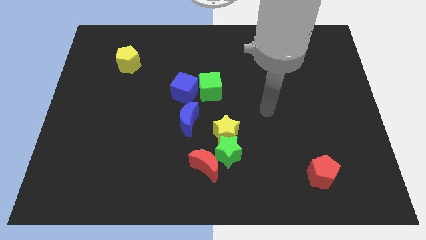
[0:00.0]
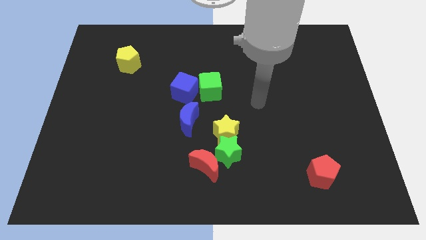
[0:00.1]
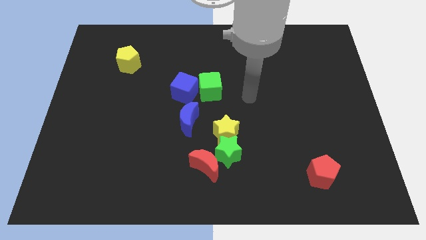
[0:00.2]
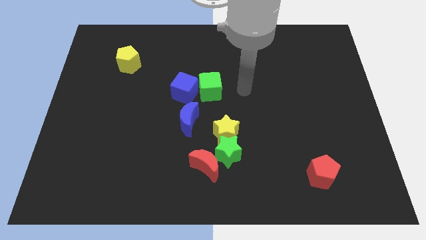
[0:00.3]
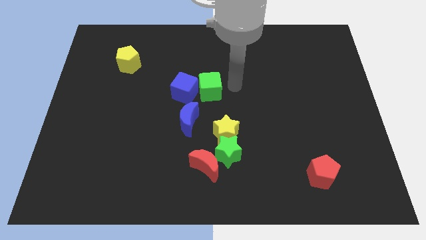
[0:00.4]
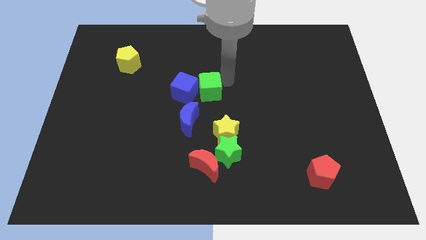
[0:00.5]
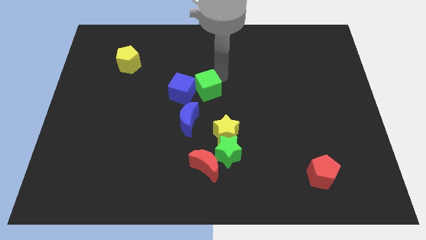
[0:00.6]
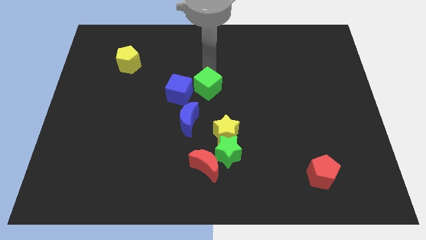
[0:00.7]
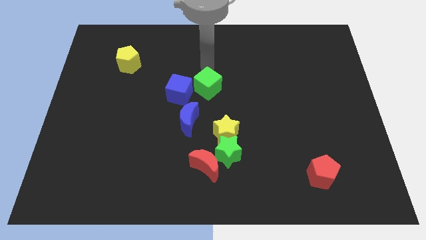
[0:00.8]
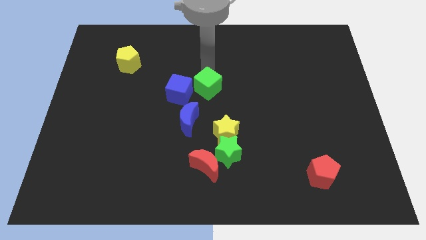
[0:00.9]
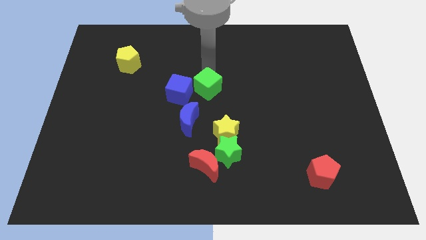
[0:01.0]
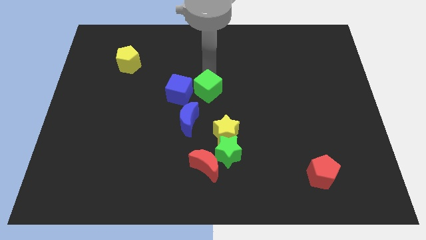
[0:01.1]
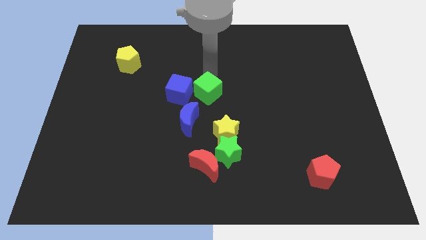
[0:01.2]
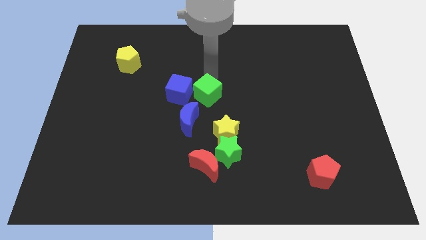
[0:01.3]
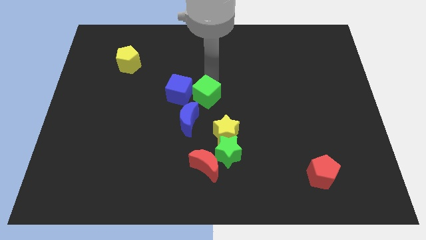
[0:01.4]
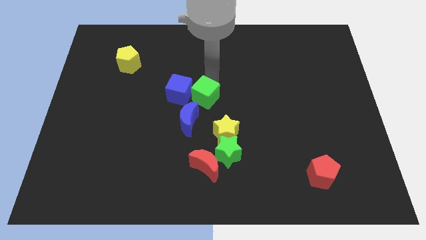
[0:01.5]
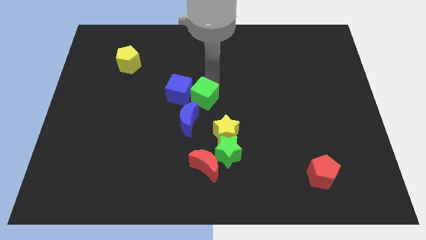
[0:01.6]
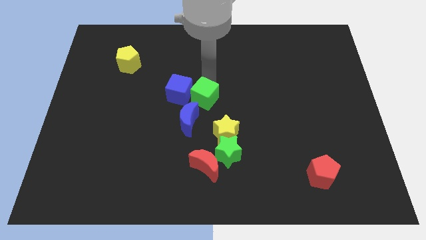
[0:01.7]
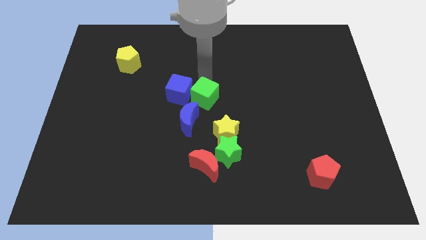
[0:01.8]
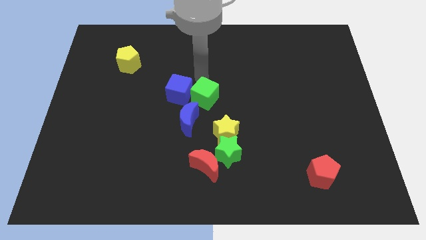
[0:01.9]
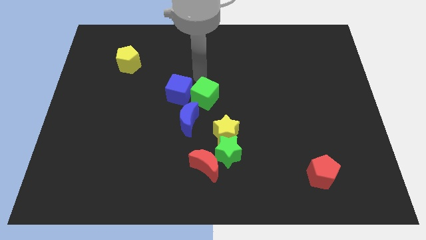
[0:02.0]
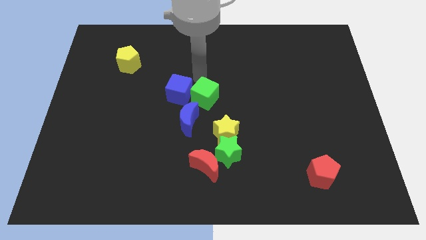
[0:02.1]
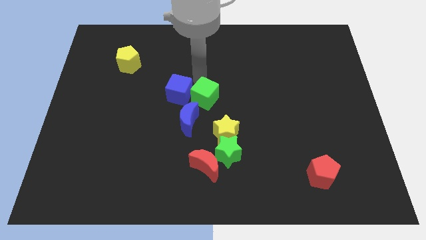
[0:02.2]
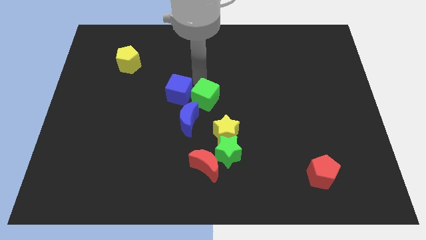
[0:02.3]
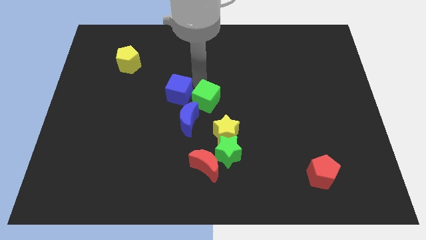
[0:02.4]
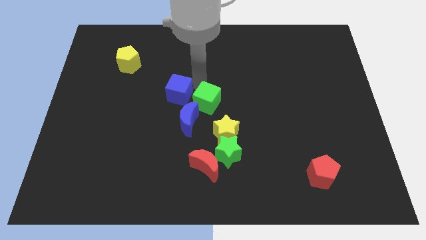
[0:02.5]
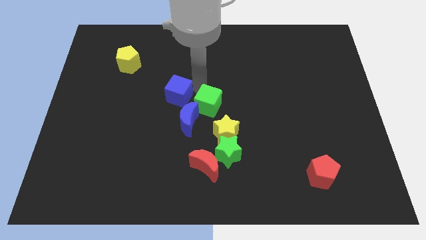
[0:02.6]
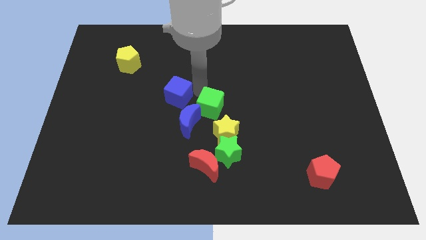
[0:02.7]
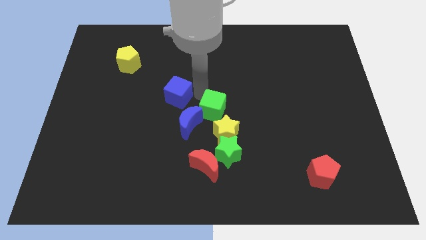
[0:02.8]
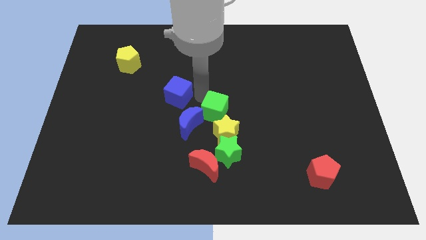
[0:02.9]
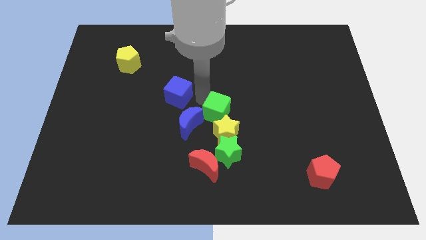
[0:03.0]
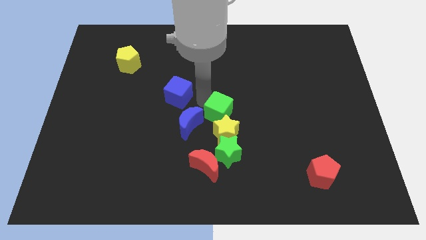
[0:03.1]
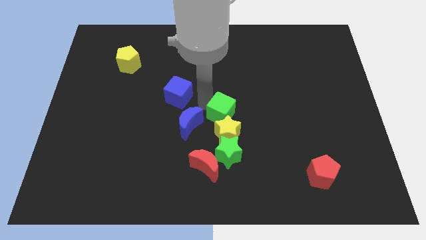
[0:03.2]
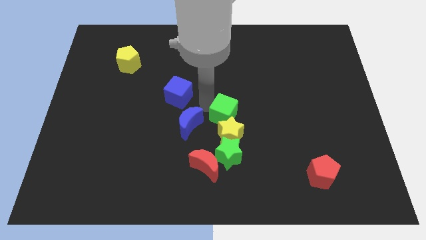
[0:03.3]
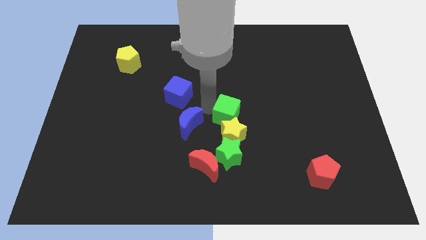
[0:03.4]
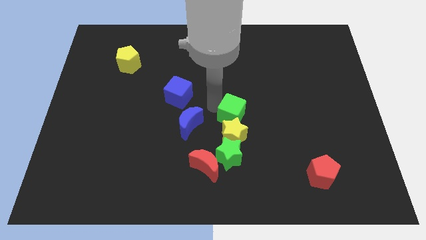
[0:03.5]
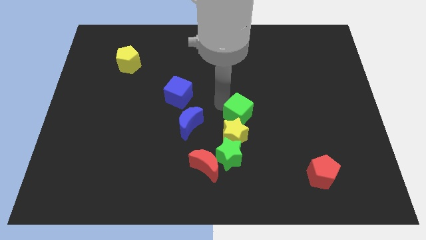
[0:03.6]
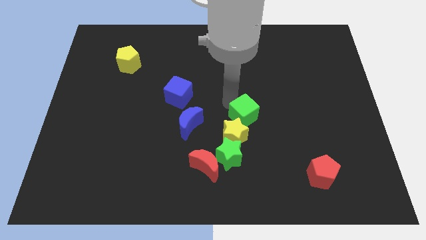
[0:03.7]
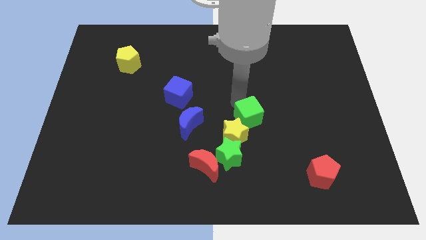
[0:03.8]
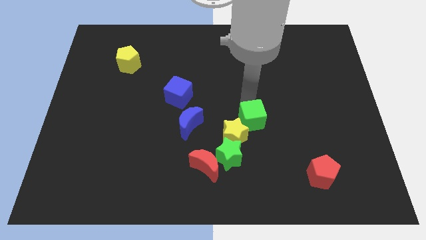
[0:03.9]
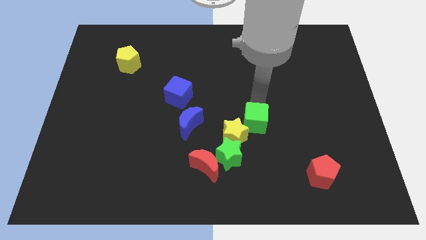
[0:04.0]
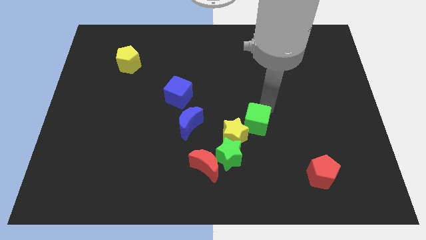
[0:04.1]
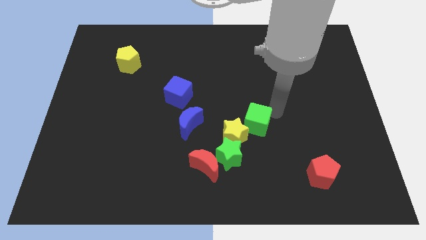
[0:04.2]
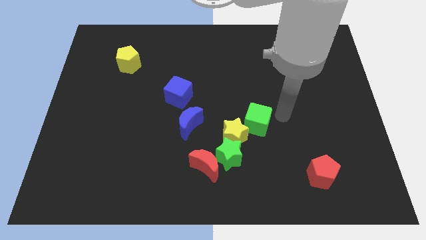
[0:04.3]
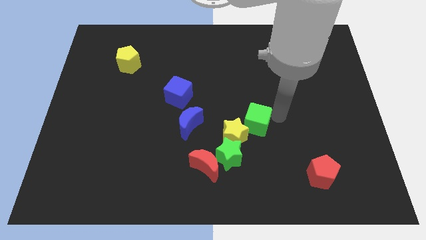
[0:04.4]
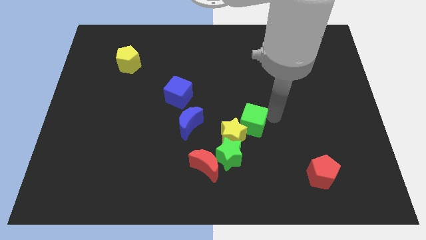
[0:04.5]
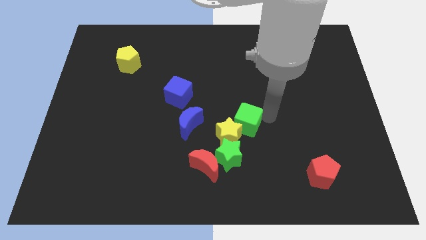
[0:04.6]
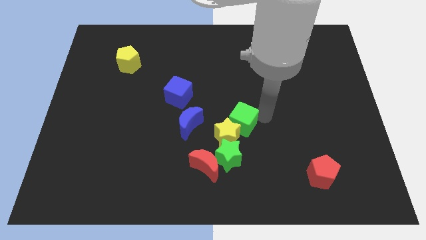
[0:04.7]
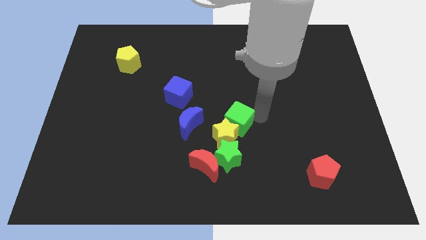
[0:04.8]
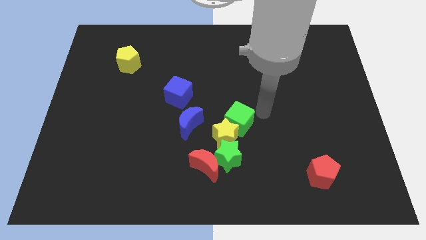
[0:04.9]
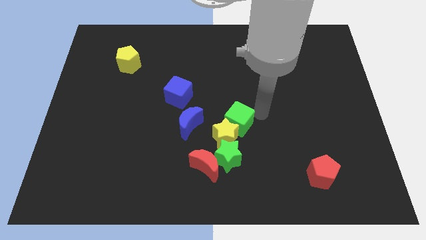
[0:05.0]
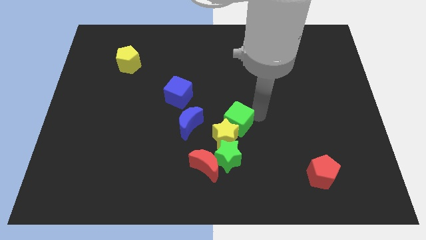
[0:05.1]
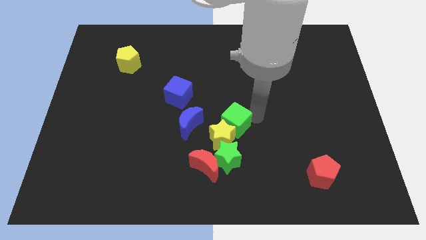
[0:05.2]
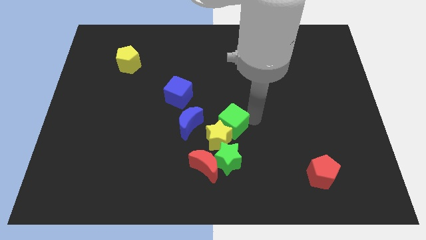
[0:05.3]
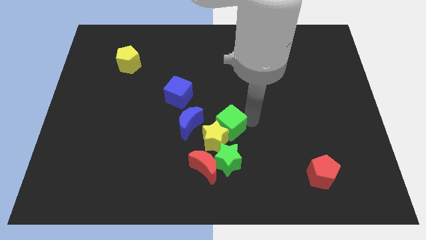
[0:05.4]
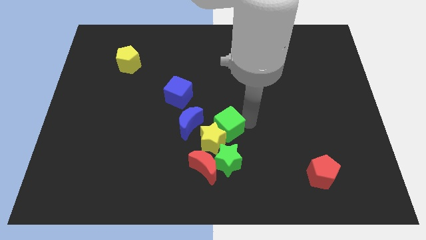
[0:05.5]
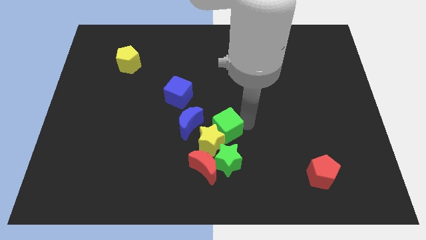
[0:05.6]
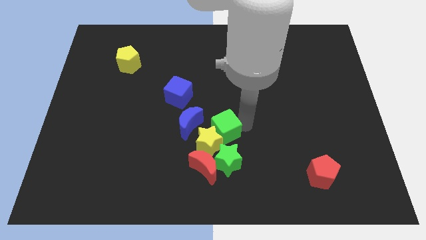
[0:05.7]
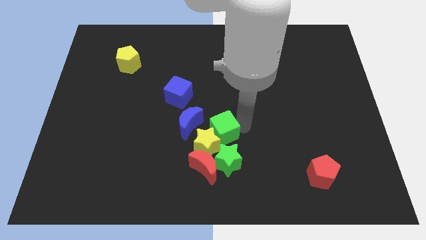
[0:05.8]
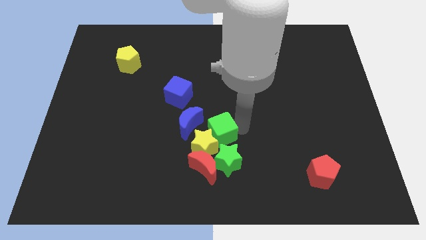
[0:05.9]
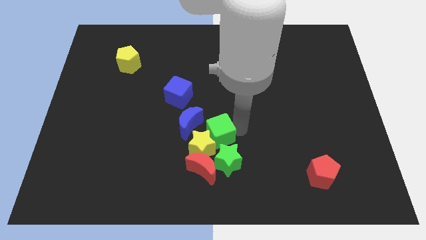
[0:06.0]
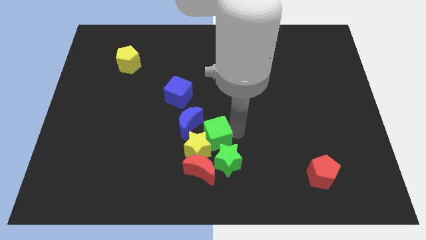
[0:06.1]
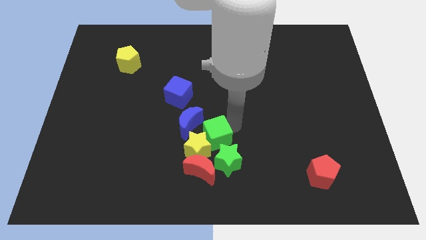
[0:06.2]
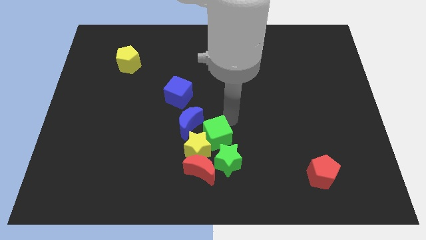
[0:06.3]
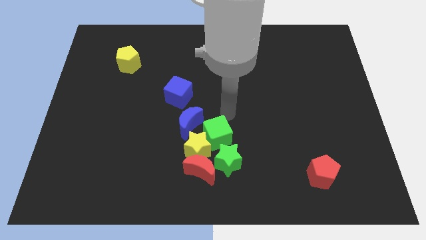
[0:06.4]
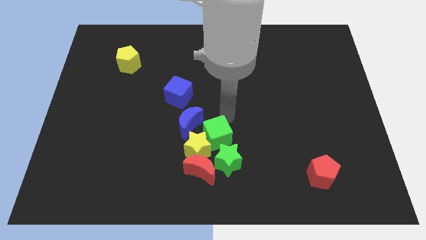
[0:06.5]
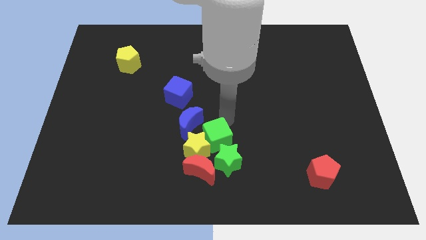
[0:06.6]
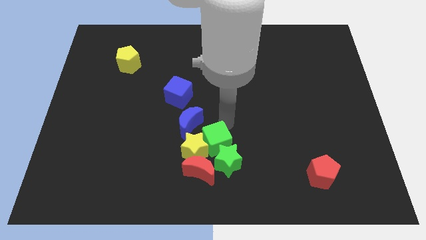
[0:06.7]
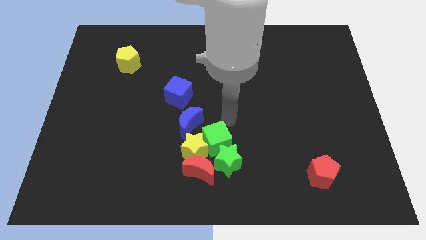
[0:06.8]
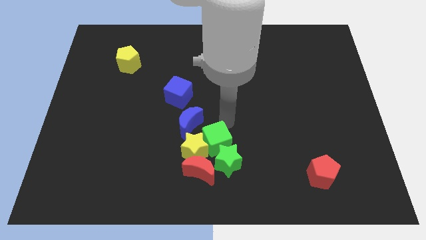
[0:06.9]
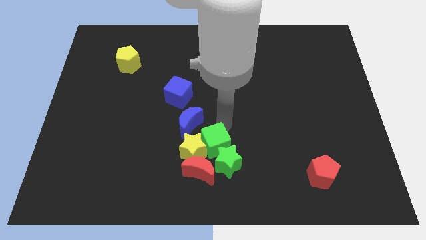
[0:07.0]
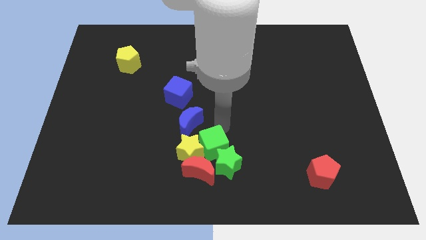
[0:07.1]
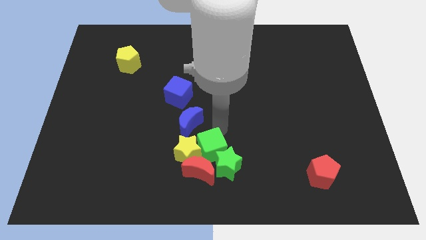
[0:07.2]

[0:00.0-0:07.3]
slide the green cube close to the red moon
